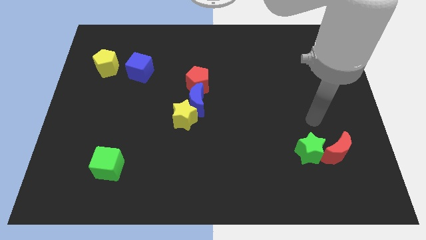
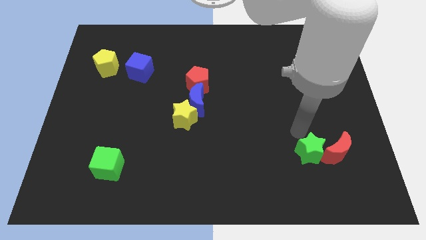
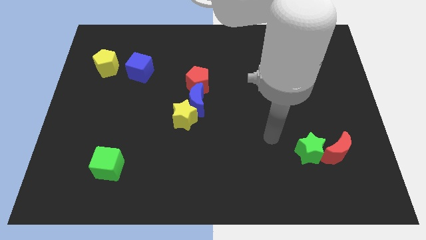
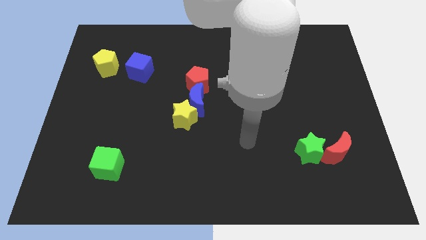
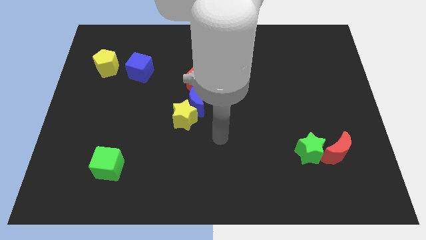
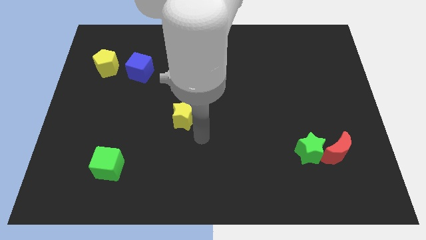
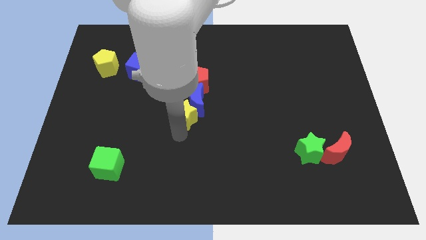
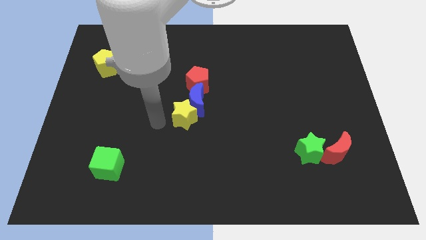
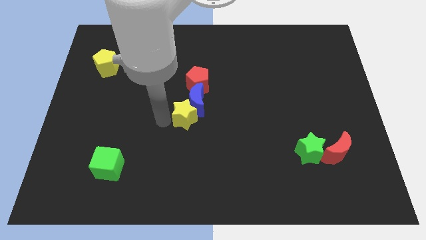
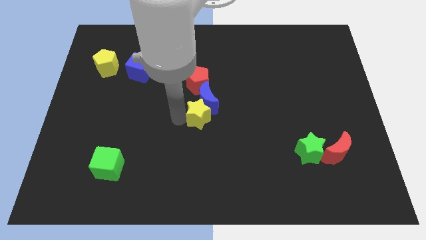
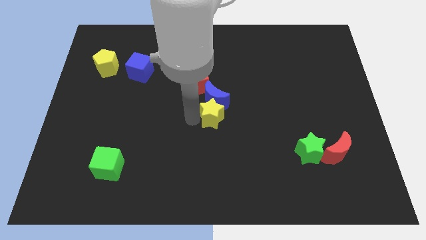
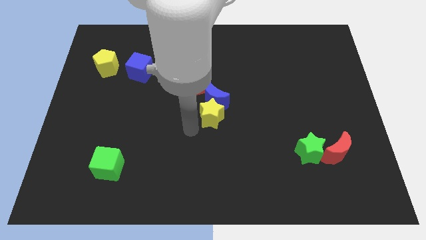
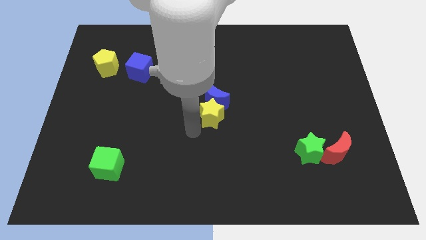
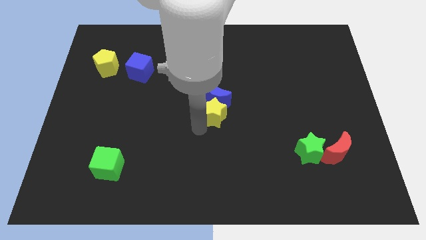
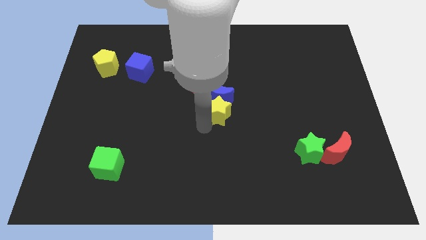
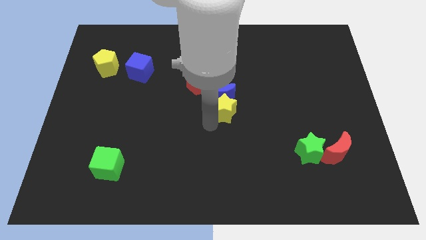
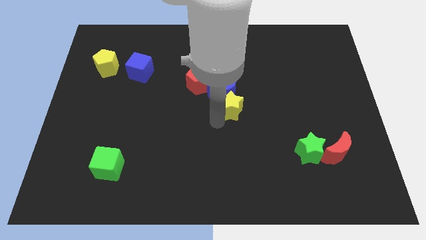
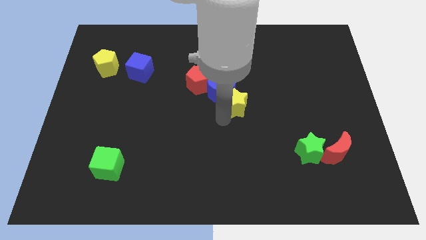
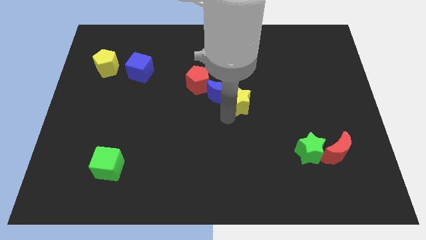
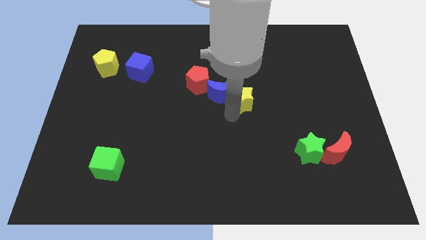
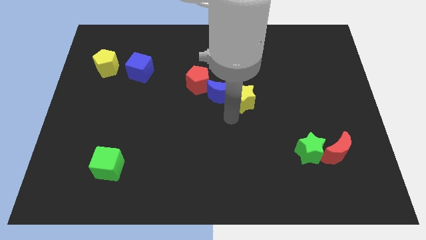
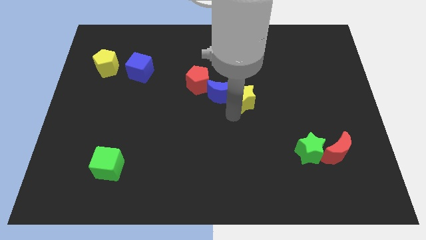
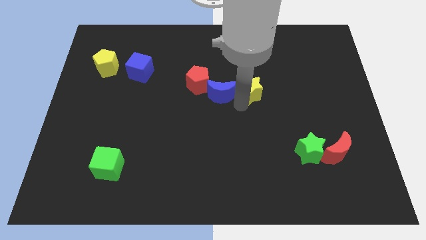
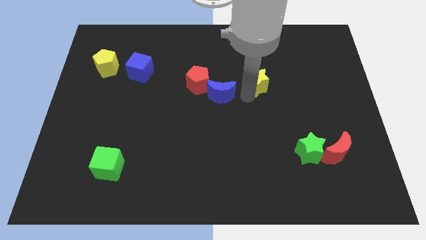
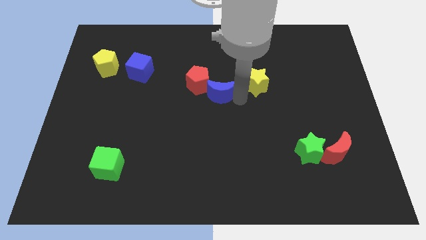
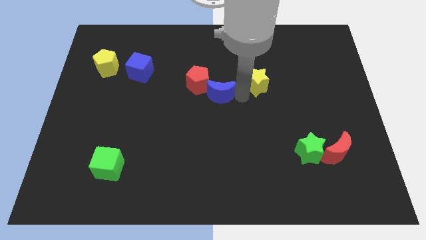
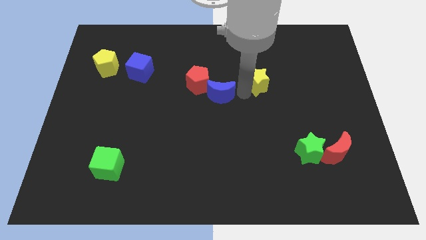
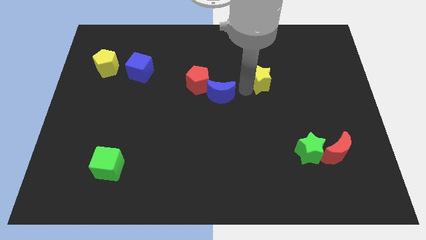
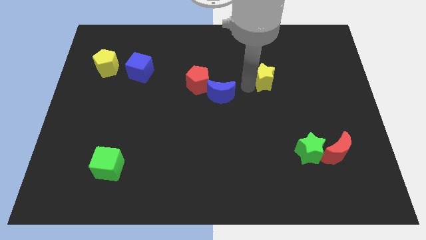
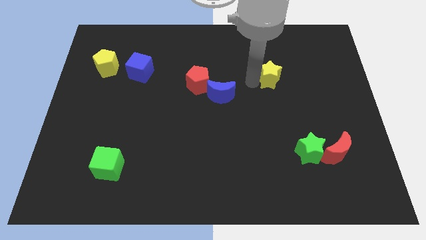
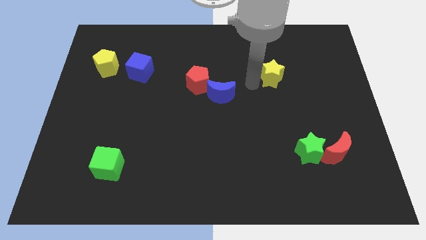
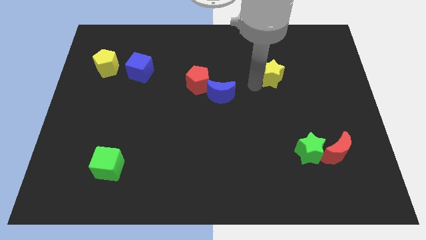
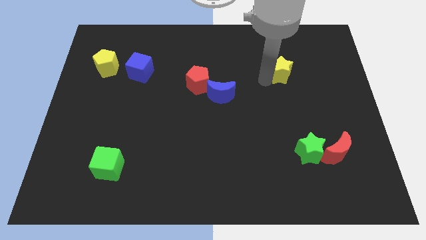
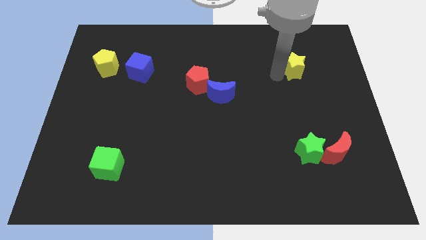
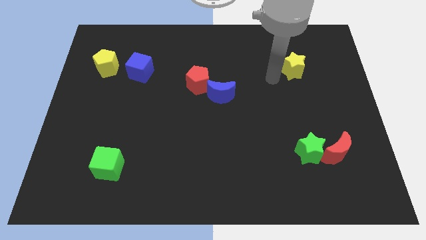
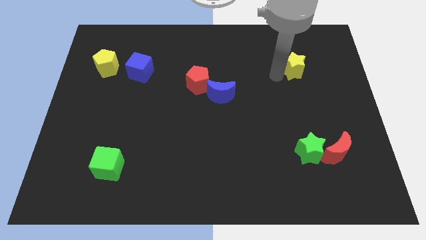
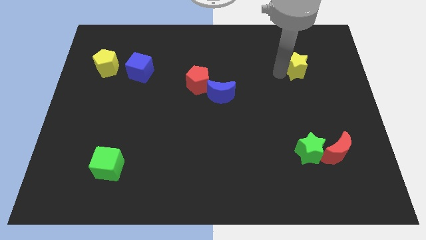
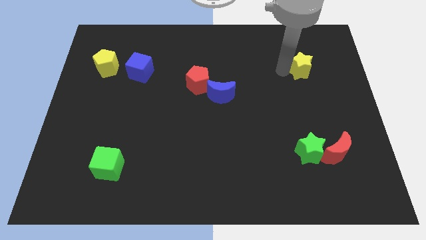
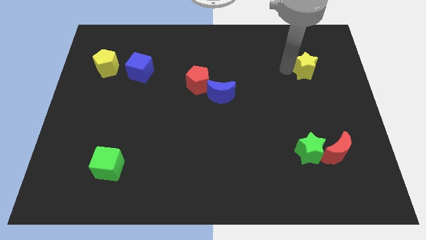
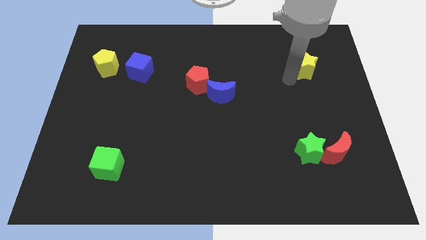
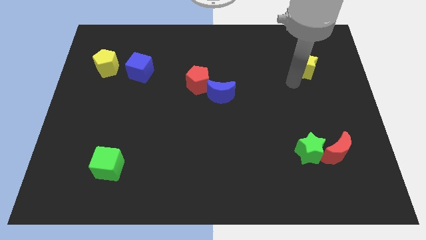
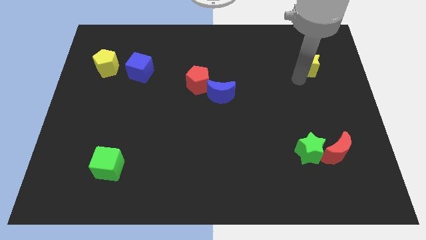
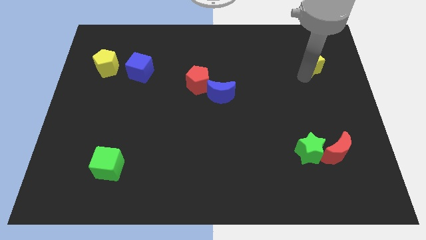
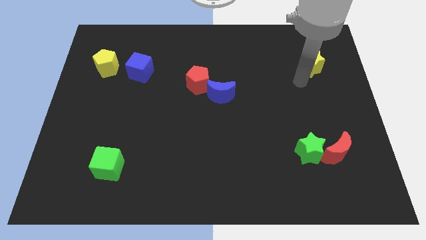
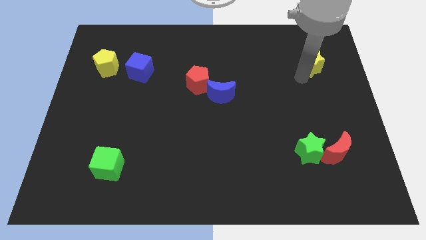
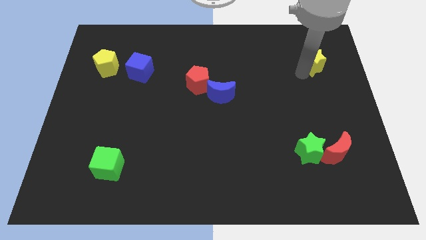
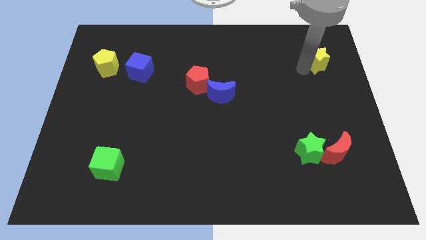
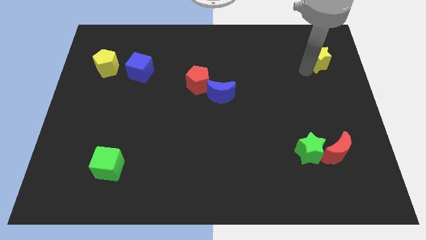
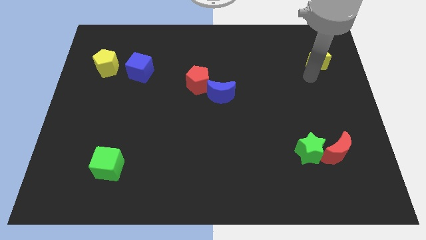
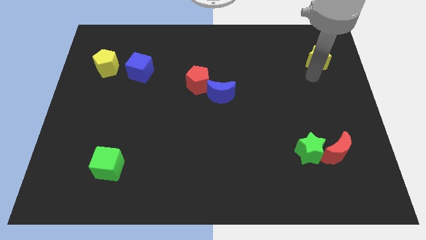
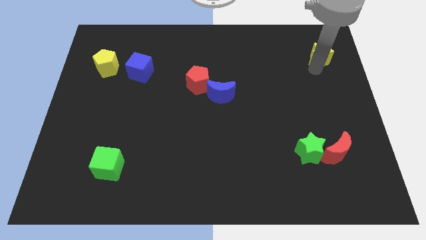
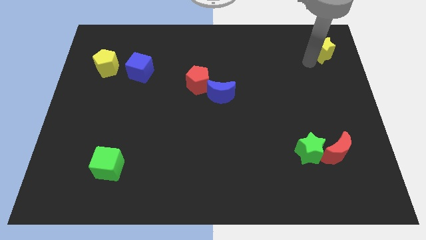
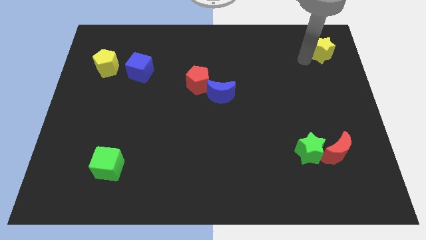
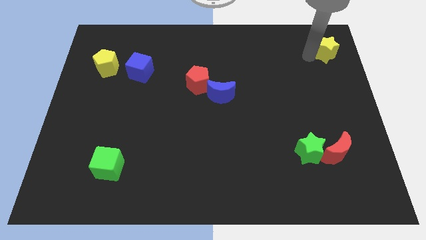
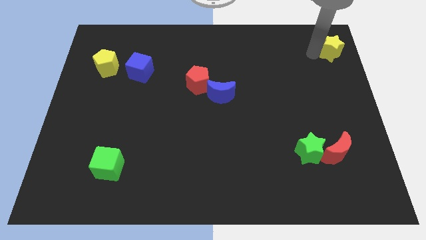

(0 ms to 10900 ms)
push the yellow star to the top right

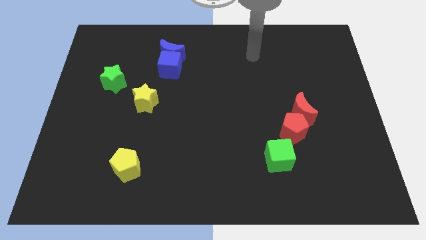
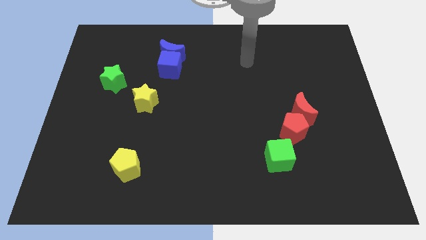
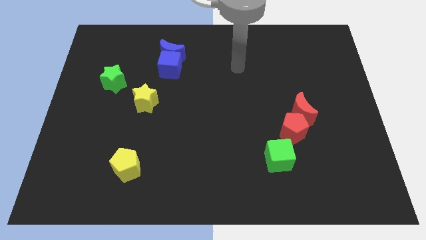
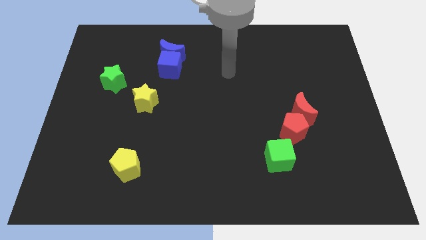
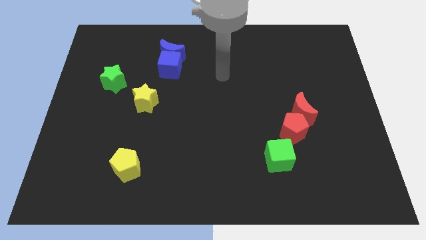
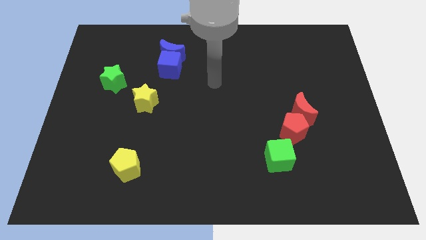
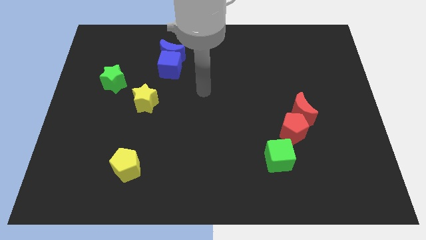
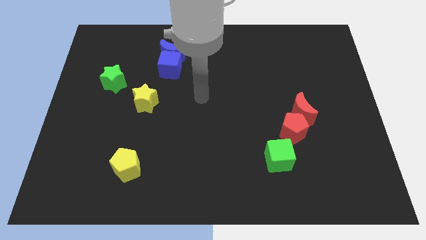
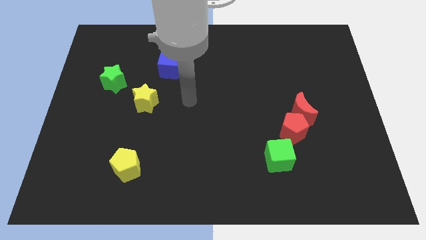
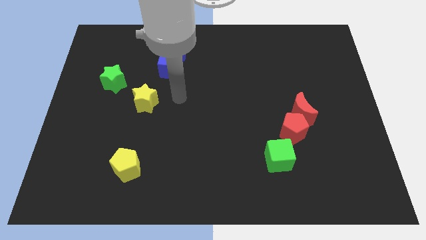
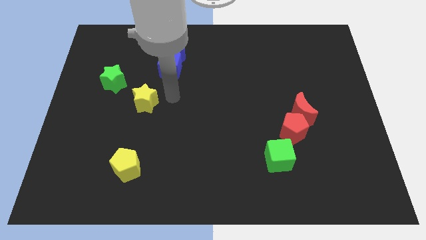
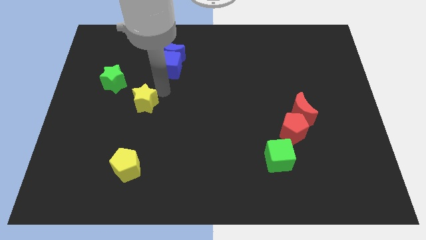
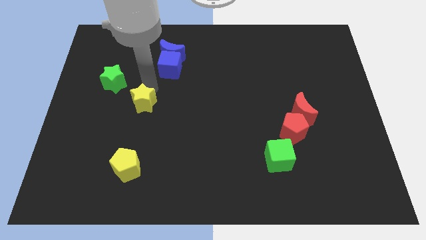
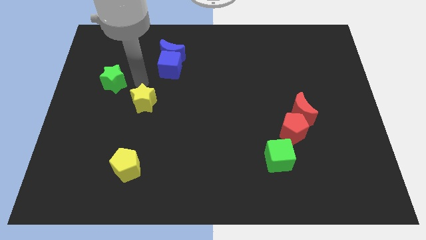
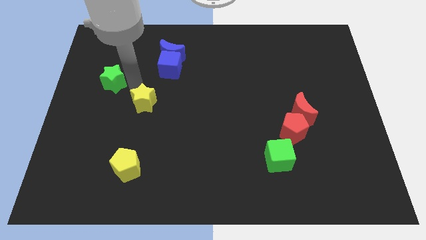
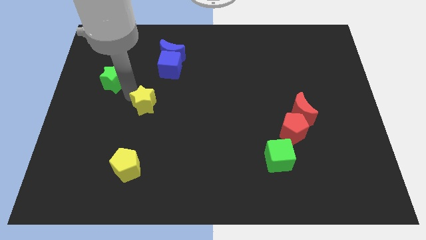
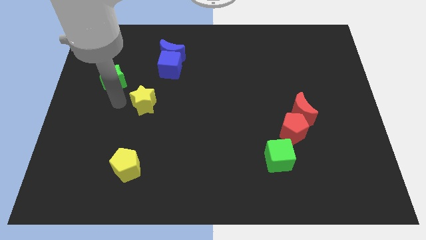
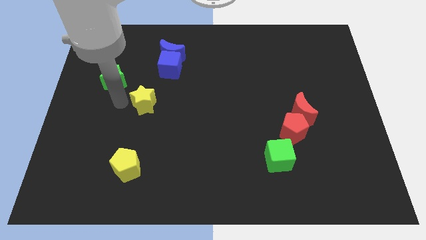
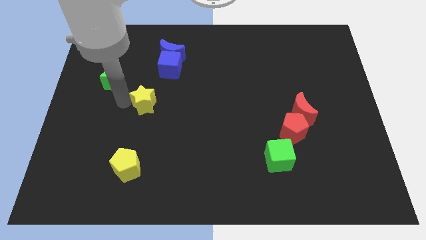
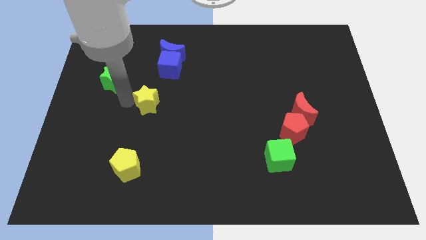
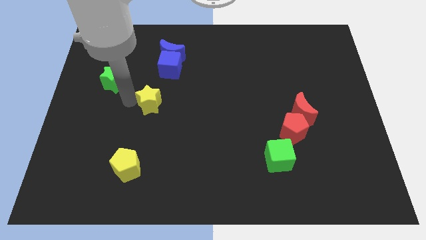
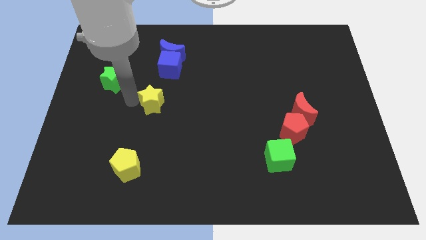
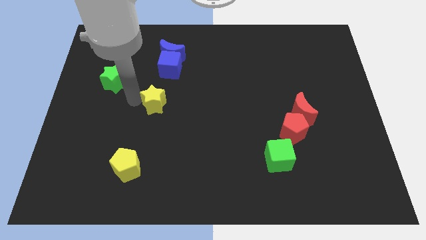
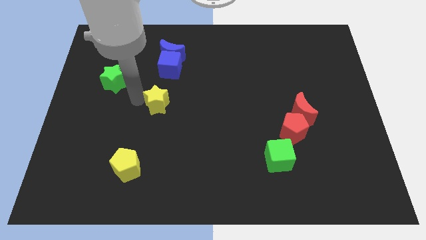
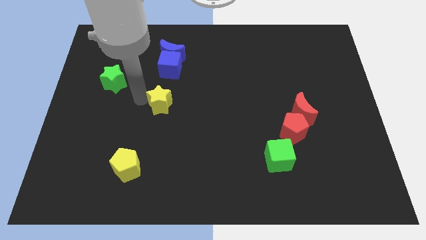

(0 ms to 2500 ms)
put the yellow star to the middle of the board
